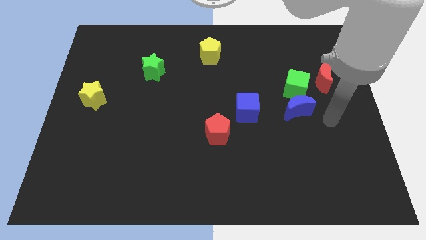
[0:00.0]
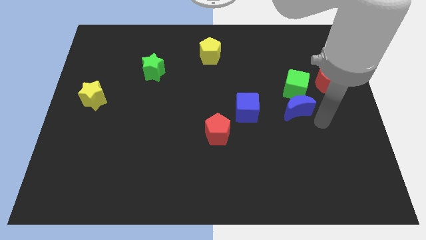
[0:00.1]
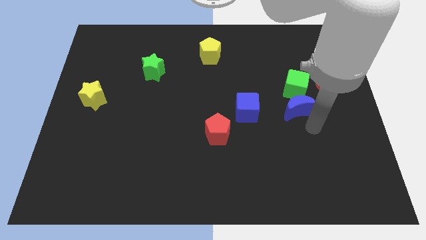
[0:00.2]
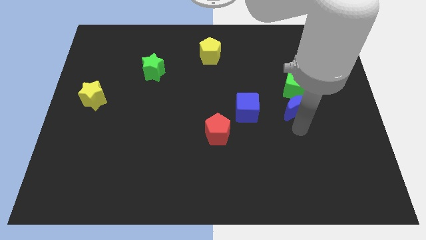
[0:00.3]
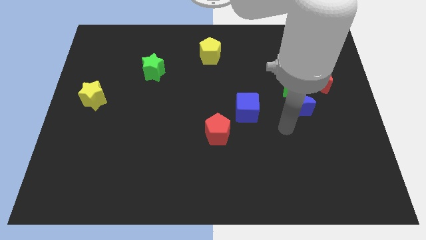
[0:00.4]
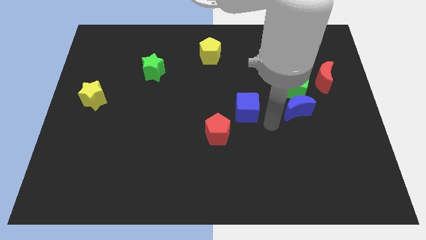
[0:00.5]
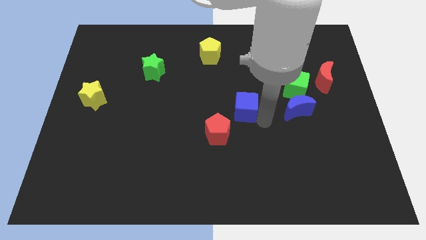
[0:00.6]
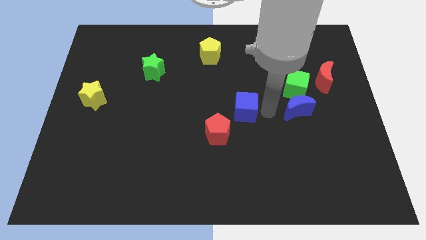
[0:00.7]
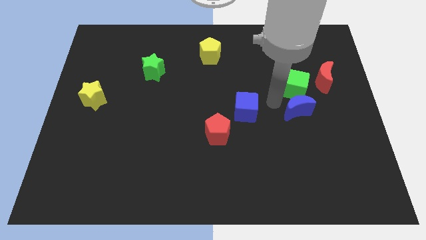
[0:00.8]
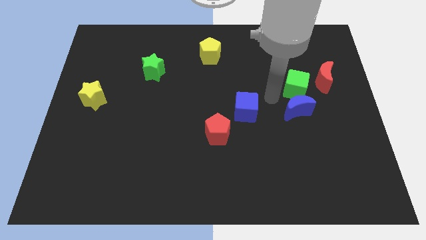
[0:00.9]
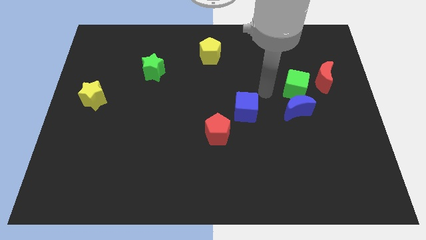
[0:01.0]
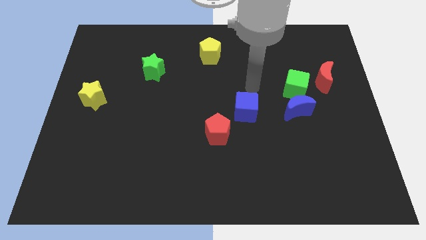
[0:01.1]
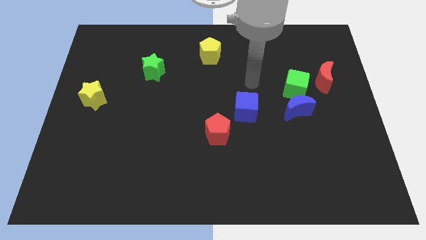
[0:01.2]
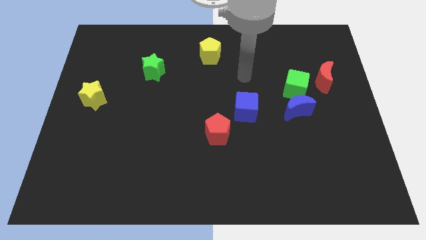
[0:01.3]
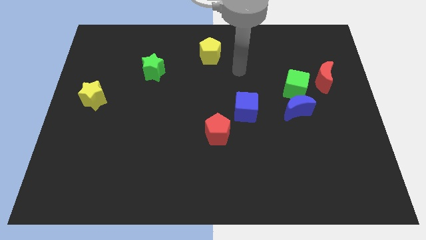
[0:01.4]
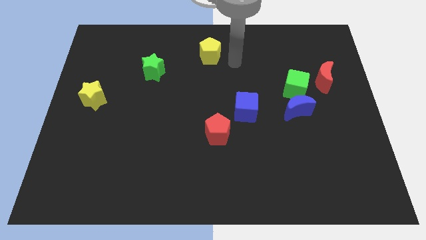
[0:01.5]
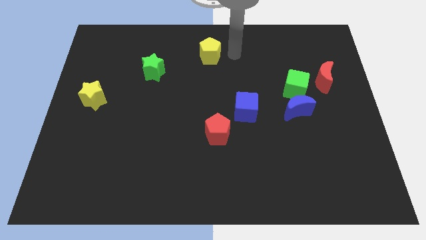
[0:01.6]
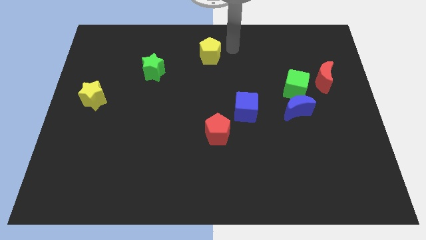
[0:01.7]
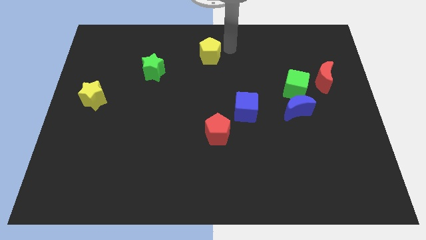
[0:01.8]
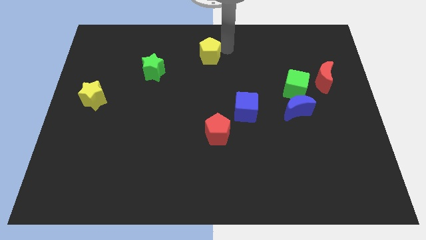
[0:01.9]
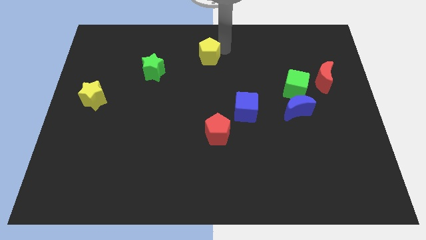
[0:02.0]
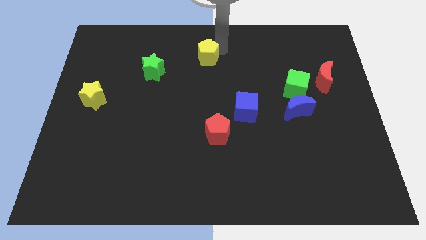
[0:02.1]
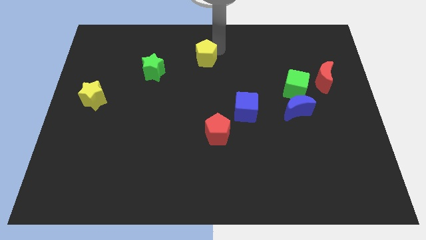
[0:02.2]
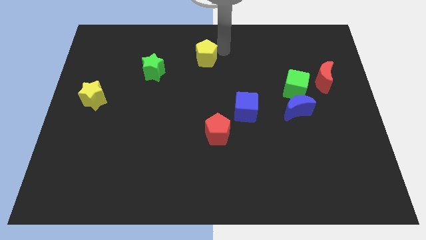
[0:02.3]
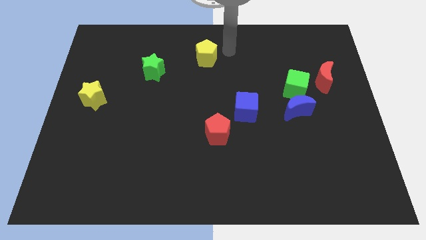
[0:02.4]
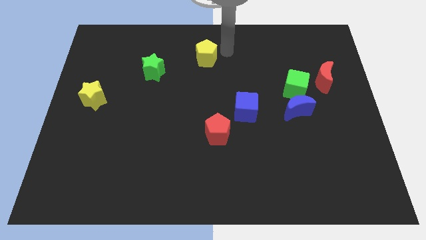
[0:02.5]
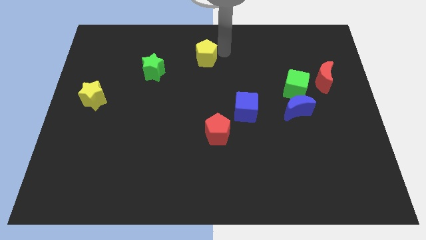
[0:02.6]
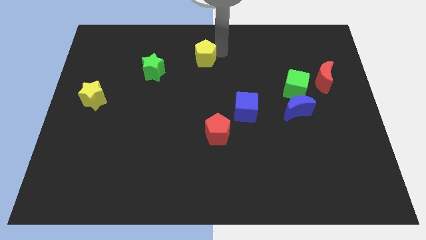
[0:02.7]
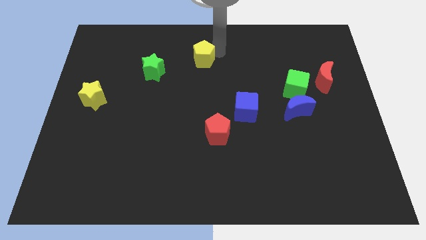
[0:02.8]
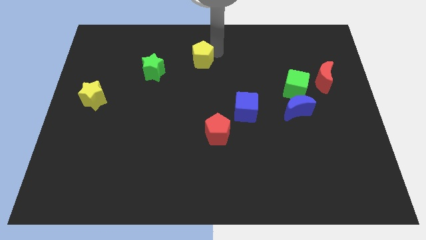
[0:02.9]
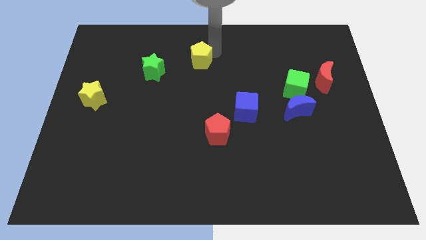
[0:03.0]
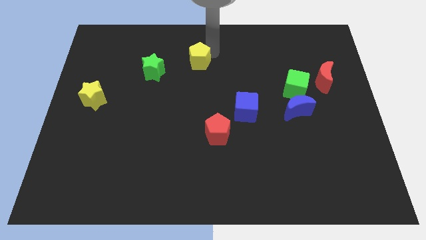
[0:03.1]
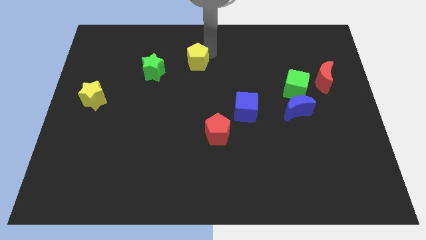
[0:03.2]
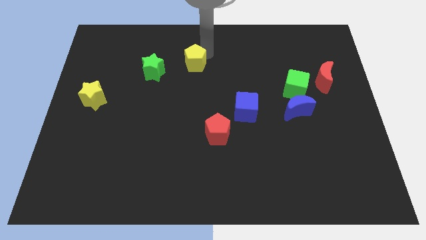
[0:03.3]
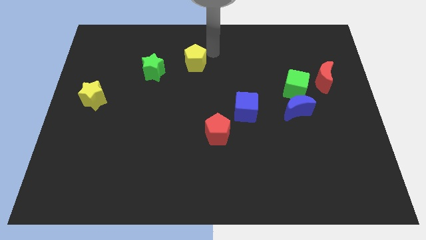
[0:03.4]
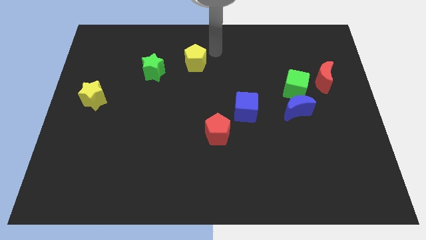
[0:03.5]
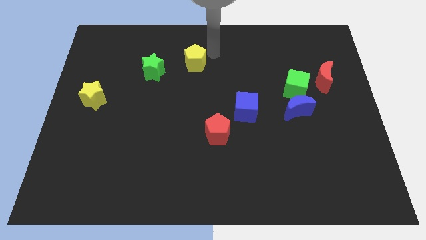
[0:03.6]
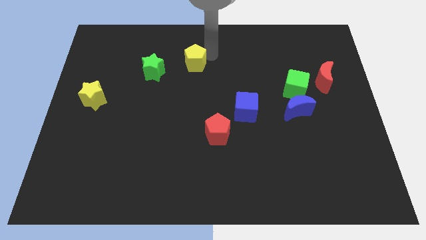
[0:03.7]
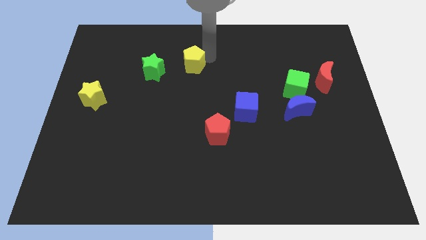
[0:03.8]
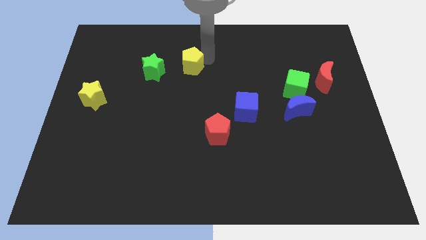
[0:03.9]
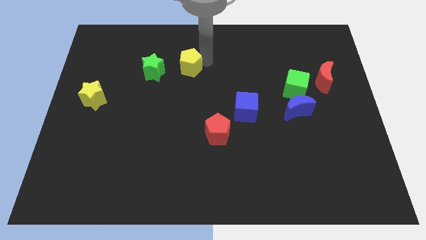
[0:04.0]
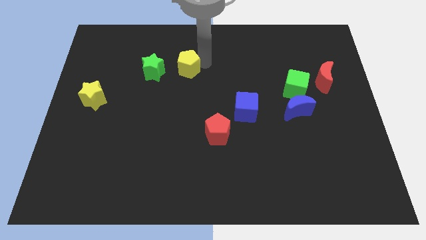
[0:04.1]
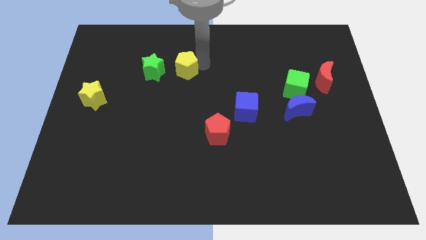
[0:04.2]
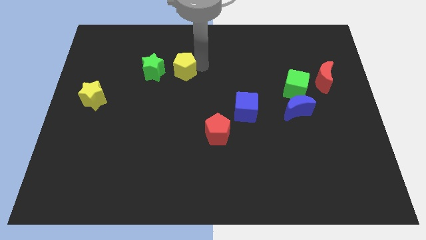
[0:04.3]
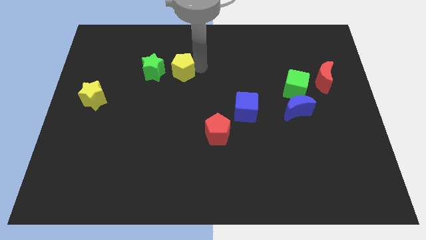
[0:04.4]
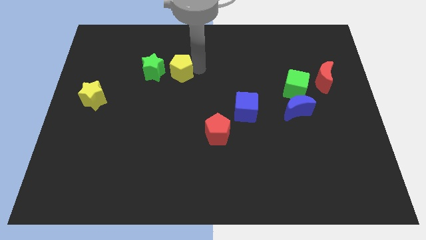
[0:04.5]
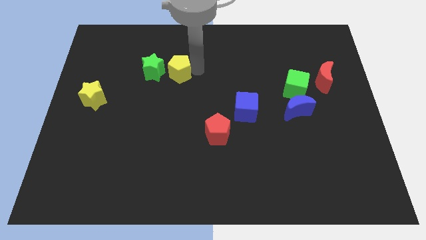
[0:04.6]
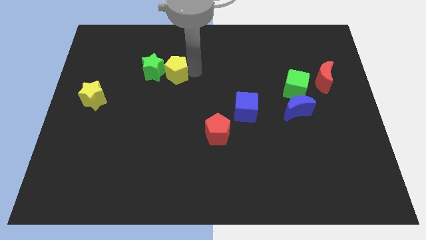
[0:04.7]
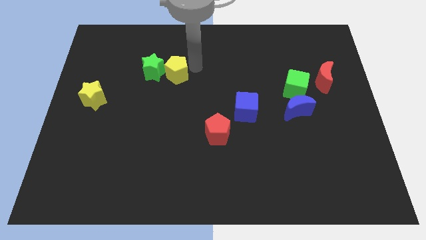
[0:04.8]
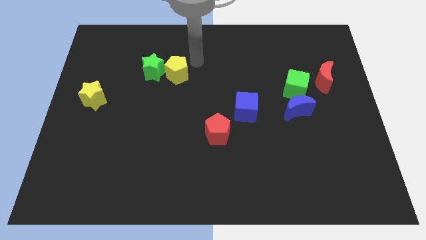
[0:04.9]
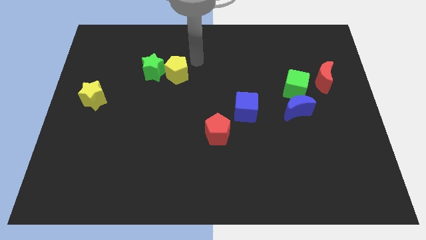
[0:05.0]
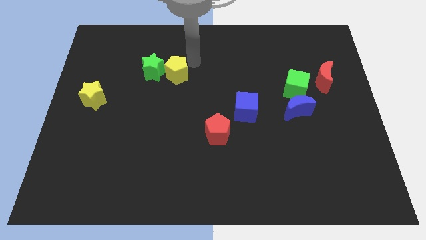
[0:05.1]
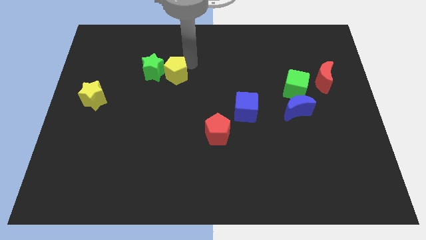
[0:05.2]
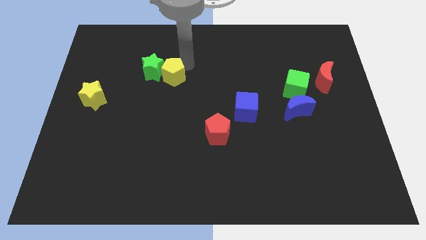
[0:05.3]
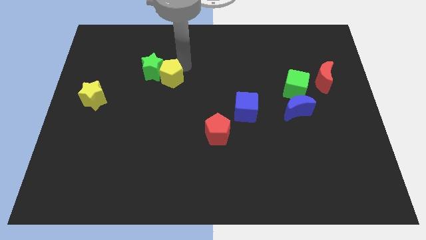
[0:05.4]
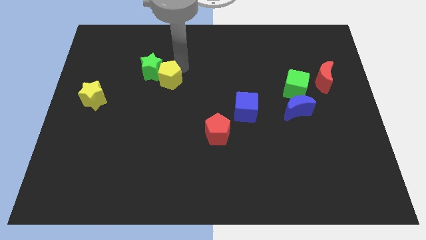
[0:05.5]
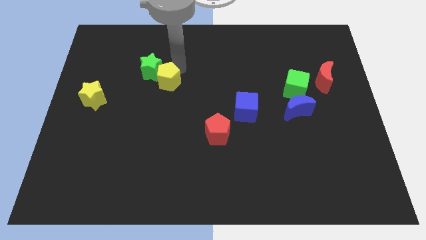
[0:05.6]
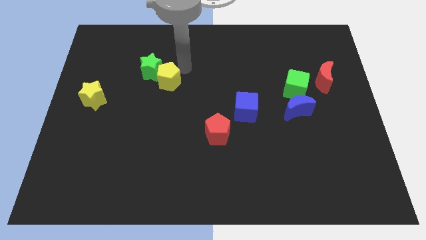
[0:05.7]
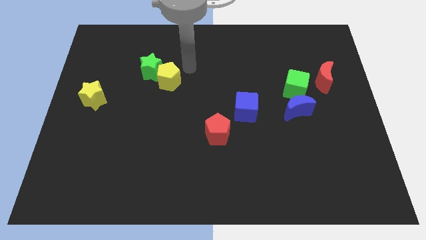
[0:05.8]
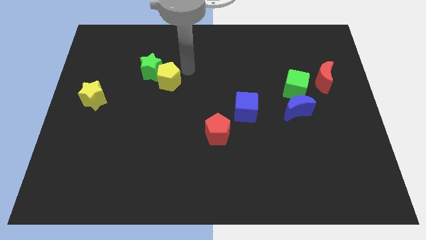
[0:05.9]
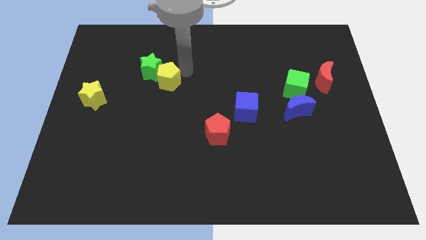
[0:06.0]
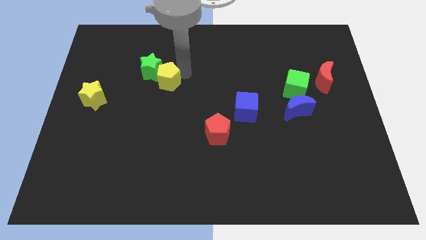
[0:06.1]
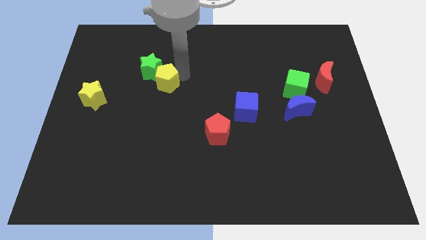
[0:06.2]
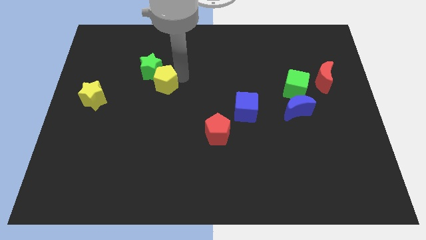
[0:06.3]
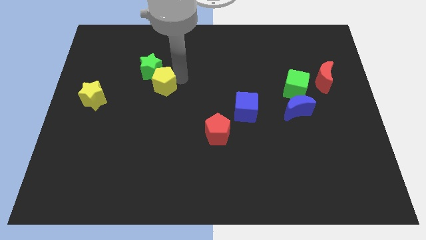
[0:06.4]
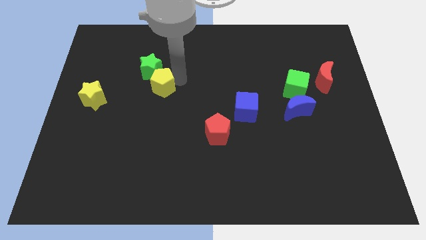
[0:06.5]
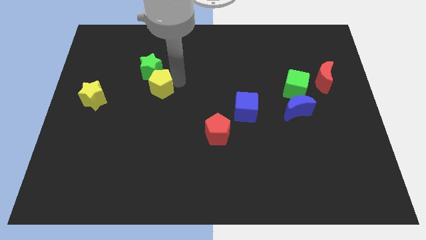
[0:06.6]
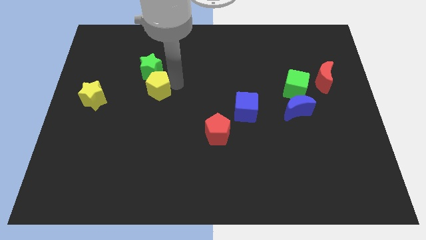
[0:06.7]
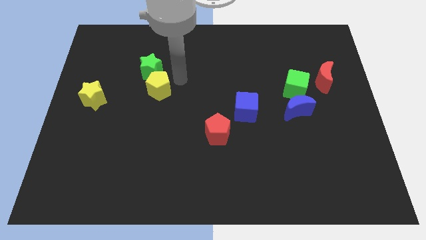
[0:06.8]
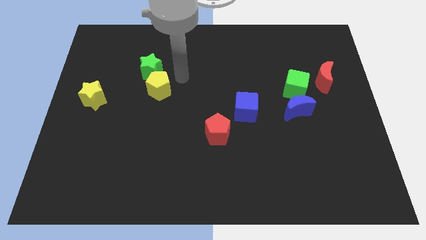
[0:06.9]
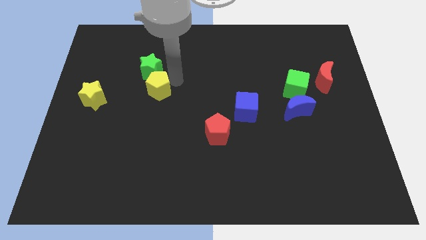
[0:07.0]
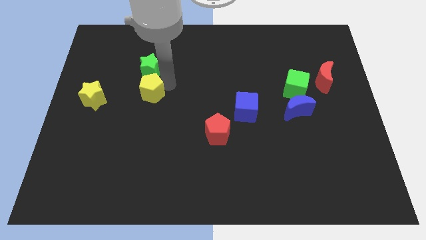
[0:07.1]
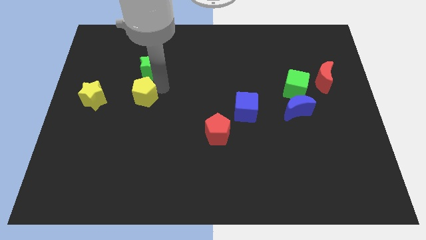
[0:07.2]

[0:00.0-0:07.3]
push the yellow pentagon diagonally down and to the left

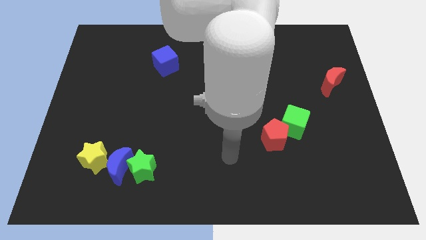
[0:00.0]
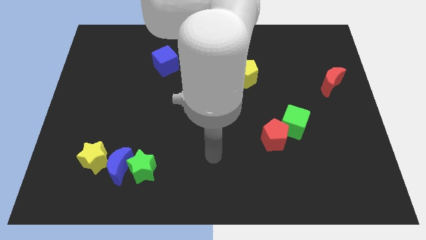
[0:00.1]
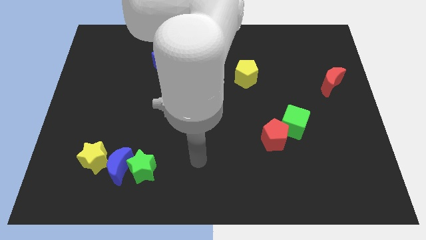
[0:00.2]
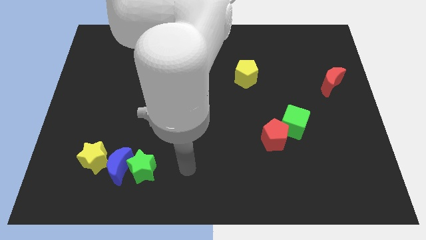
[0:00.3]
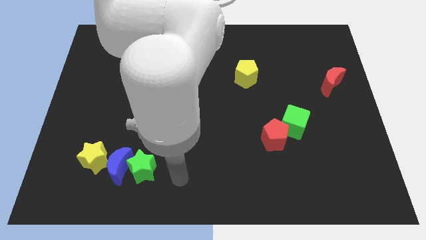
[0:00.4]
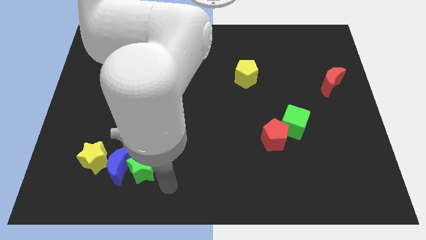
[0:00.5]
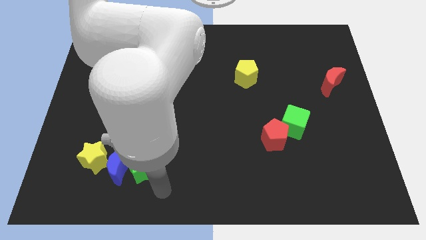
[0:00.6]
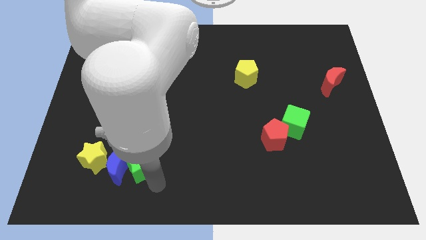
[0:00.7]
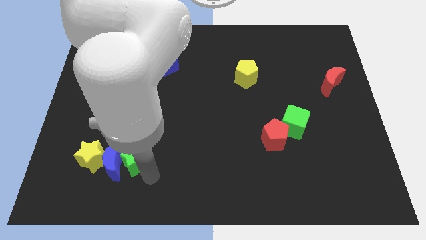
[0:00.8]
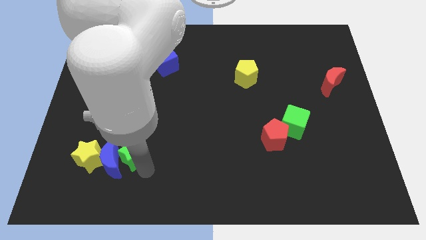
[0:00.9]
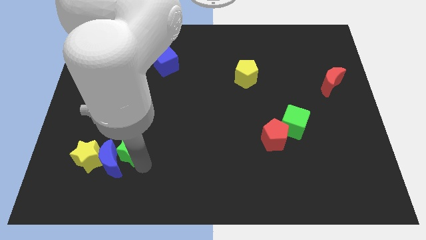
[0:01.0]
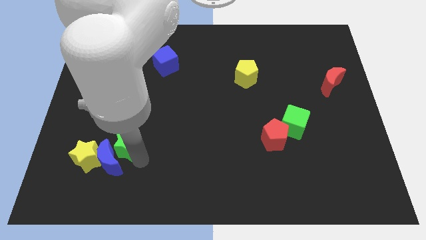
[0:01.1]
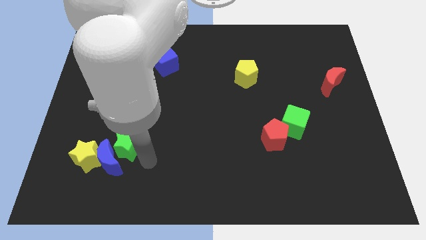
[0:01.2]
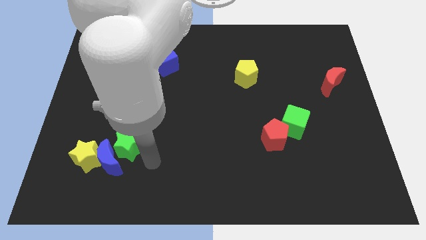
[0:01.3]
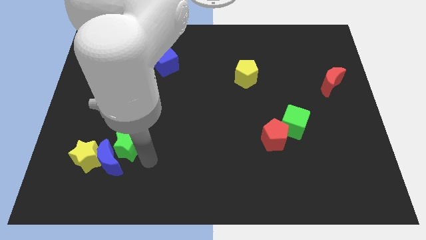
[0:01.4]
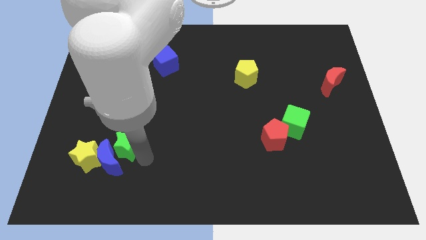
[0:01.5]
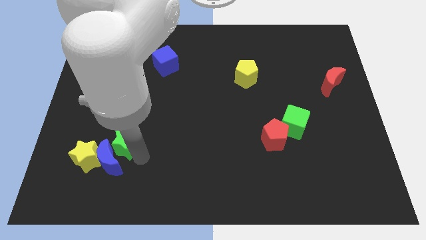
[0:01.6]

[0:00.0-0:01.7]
slide the green star up and left diagonally slightly
